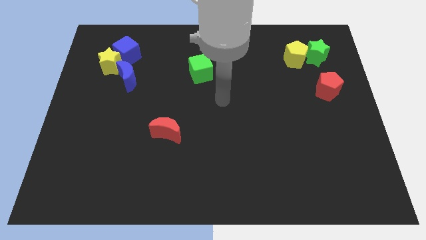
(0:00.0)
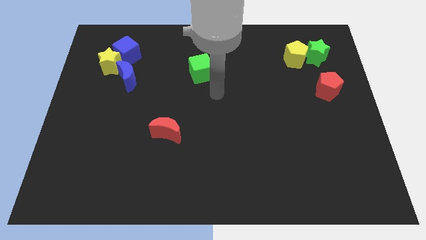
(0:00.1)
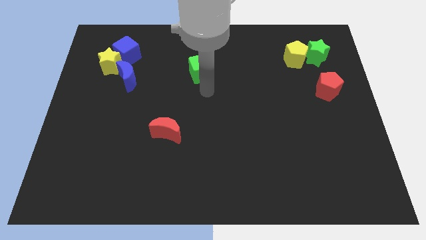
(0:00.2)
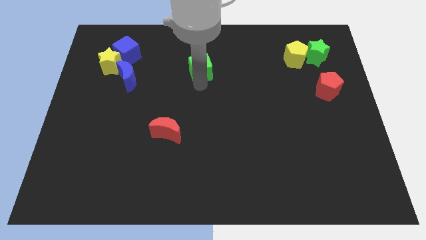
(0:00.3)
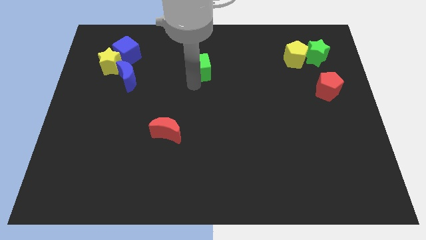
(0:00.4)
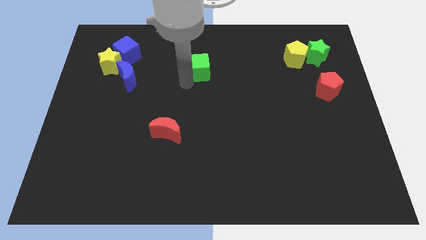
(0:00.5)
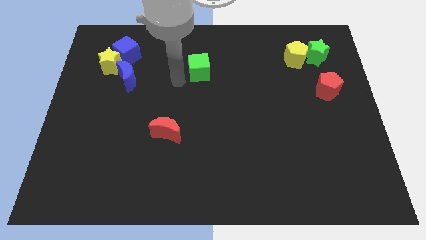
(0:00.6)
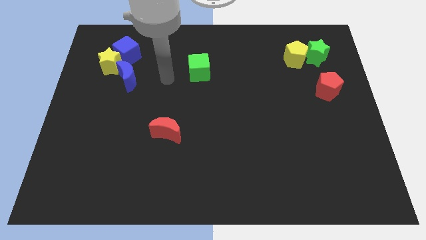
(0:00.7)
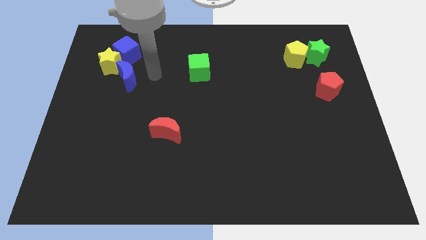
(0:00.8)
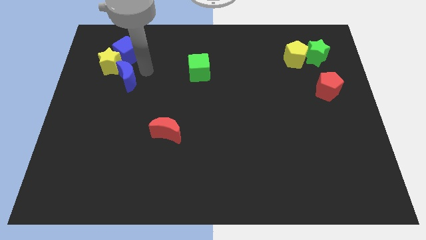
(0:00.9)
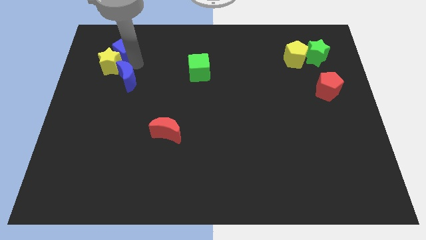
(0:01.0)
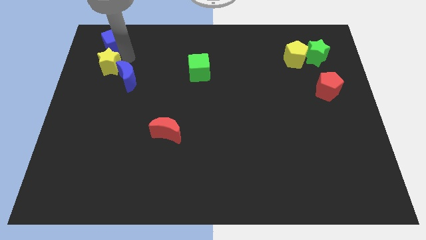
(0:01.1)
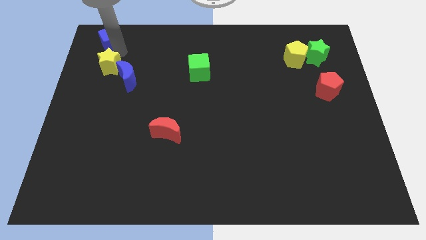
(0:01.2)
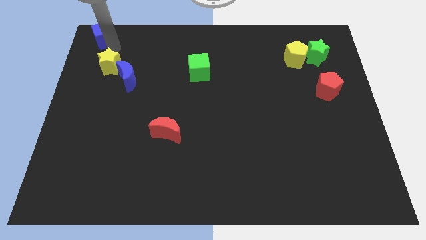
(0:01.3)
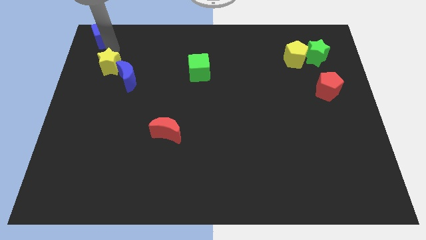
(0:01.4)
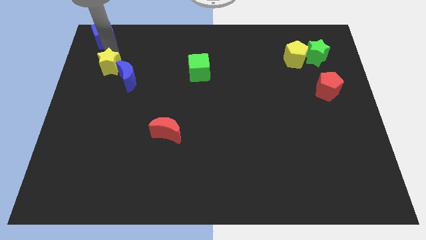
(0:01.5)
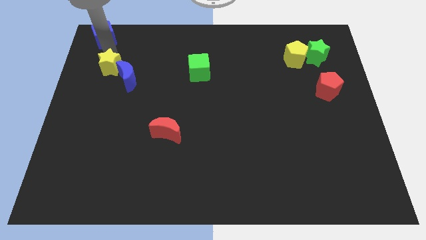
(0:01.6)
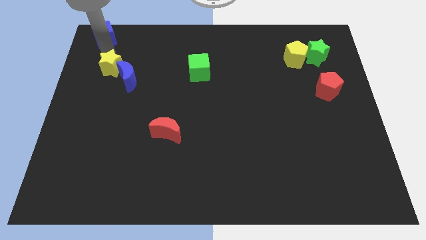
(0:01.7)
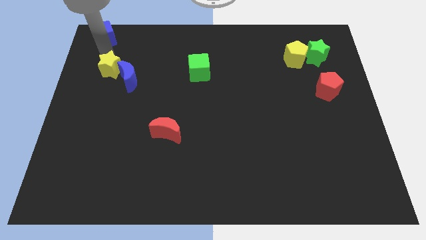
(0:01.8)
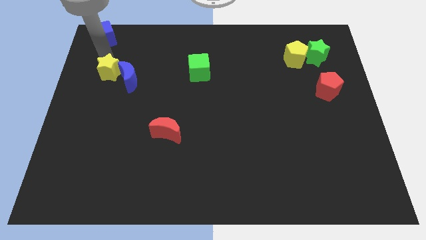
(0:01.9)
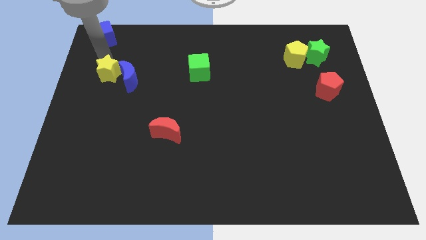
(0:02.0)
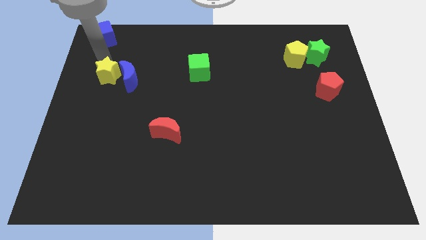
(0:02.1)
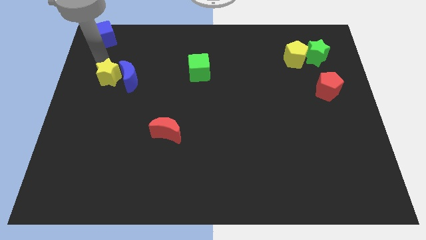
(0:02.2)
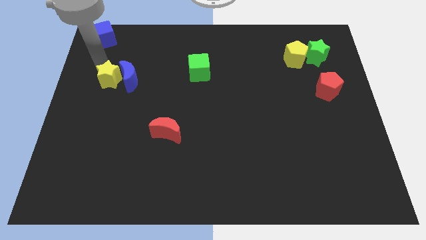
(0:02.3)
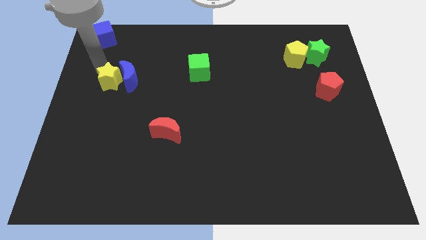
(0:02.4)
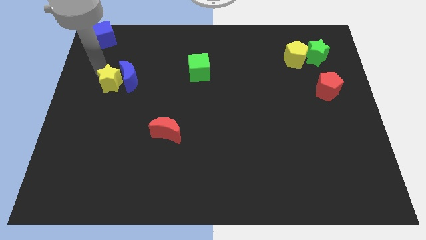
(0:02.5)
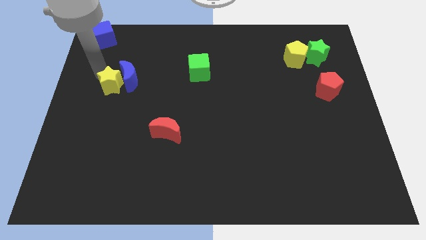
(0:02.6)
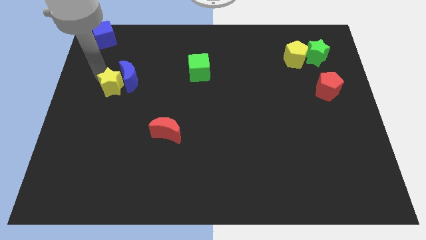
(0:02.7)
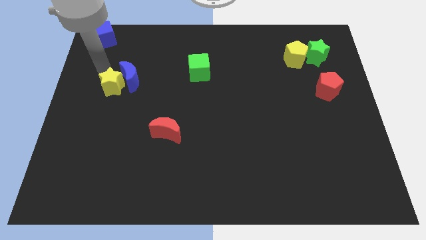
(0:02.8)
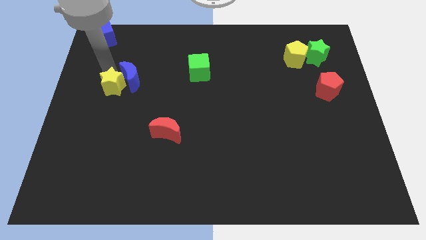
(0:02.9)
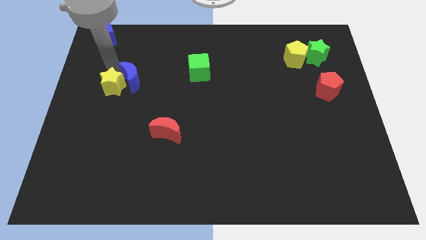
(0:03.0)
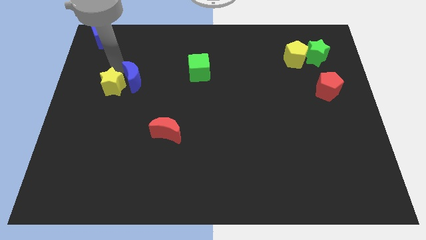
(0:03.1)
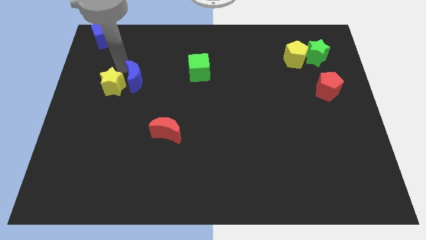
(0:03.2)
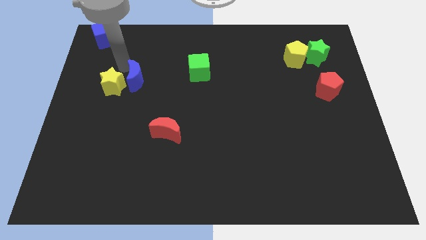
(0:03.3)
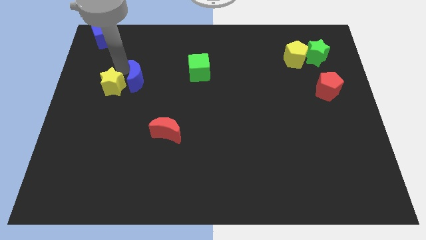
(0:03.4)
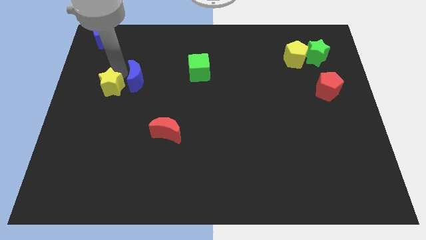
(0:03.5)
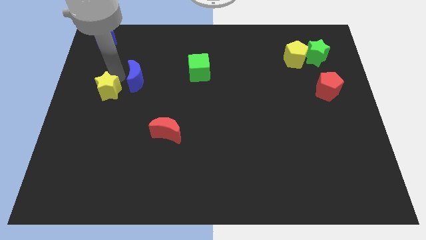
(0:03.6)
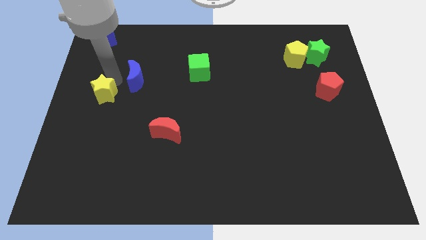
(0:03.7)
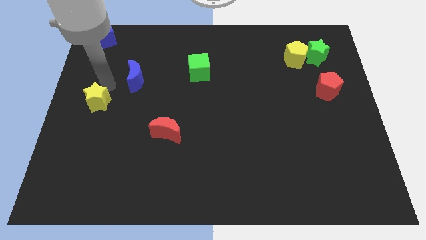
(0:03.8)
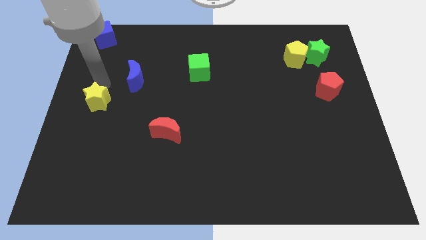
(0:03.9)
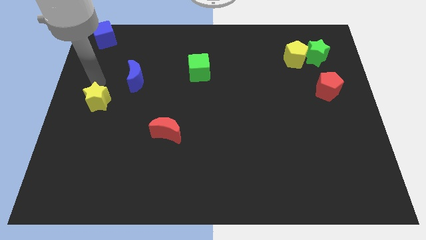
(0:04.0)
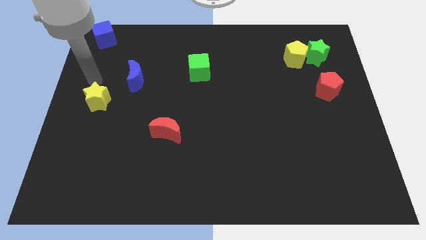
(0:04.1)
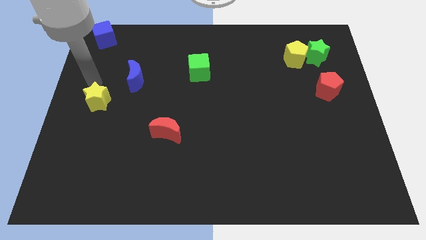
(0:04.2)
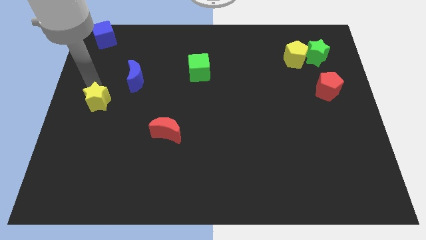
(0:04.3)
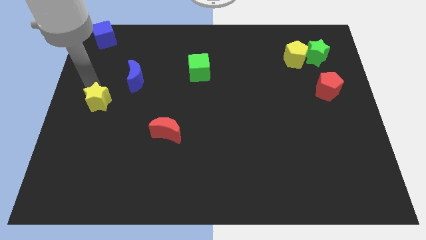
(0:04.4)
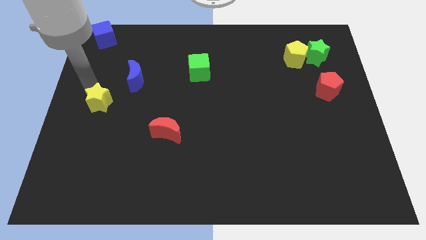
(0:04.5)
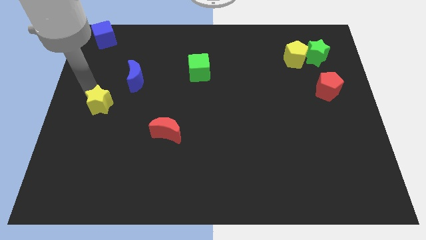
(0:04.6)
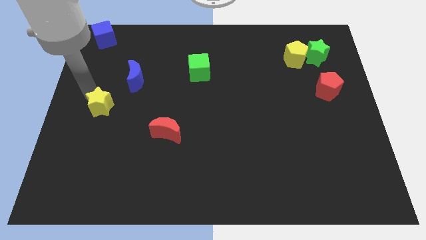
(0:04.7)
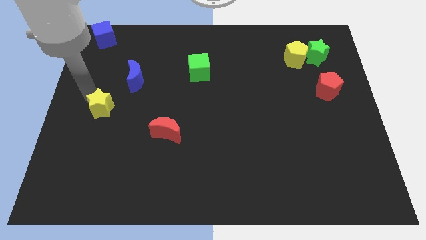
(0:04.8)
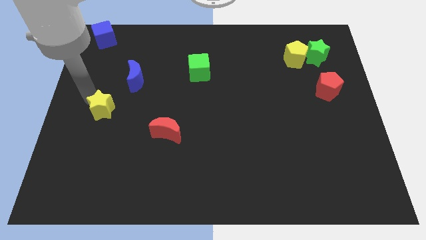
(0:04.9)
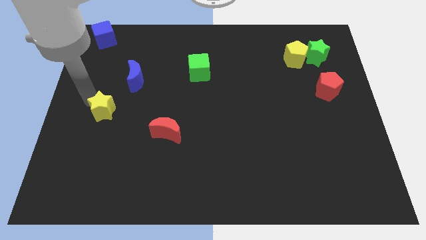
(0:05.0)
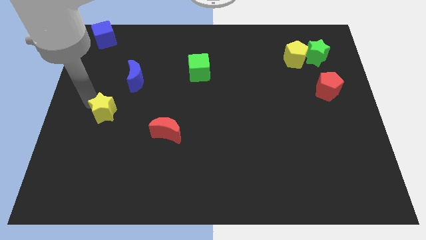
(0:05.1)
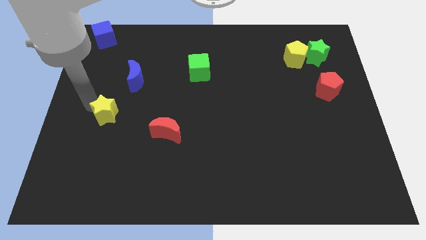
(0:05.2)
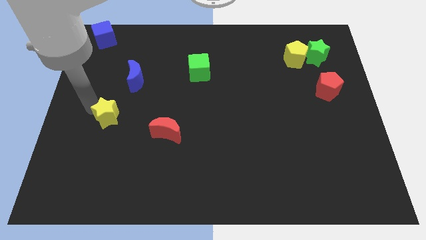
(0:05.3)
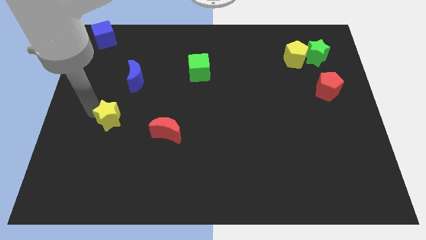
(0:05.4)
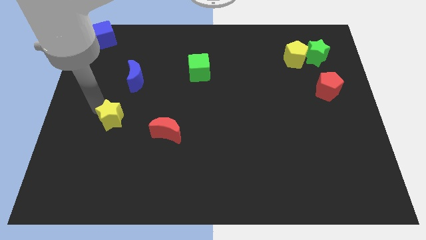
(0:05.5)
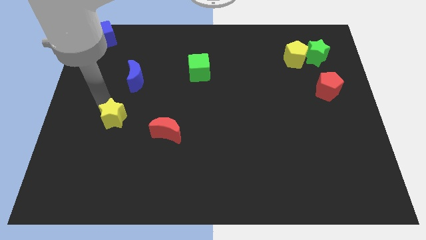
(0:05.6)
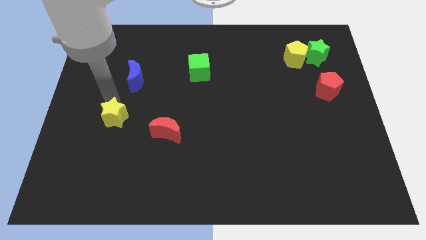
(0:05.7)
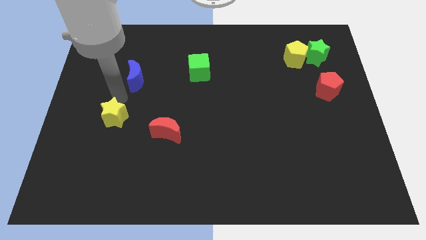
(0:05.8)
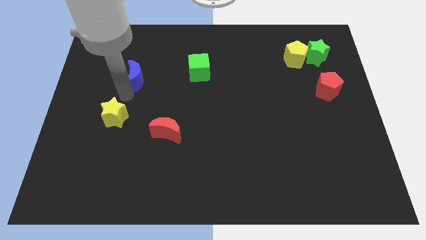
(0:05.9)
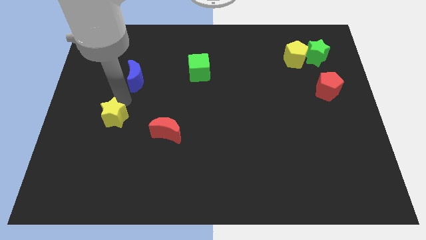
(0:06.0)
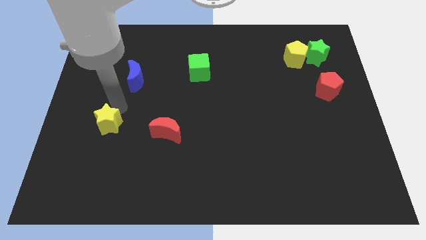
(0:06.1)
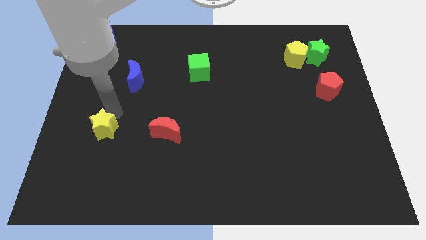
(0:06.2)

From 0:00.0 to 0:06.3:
move the yellow star downwards

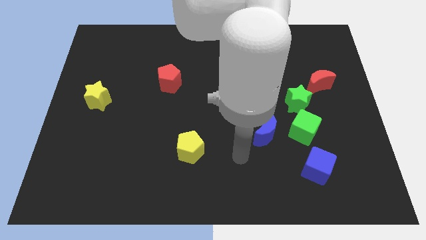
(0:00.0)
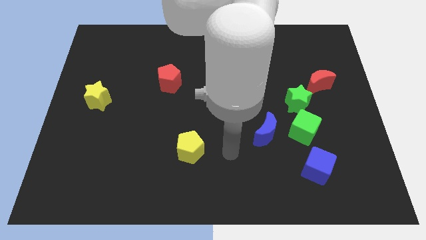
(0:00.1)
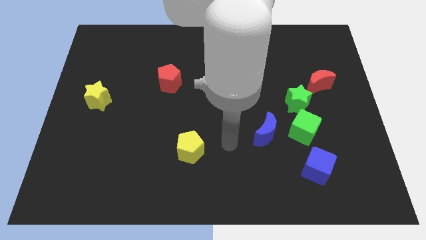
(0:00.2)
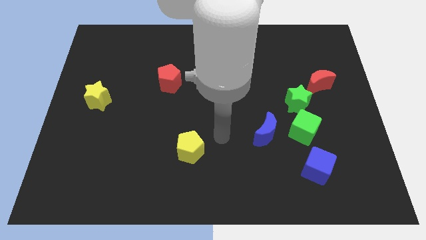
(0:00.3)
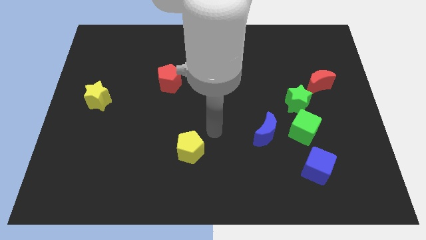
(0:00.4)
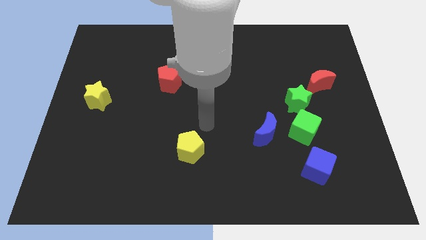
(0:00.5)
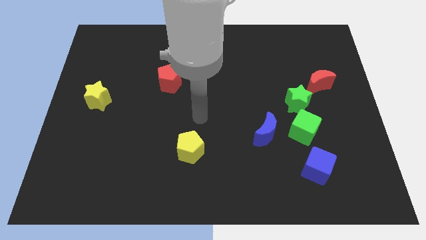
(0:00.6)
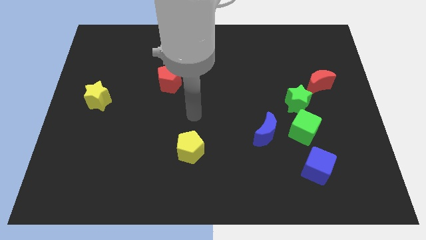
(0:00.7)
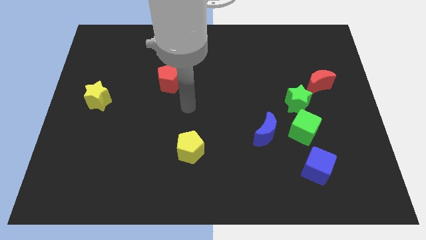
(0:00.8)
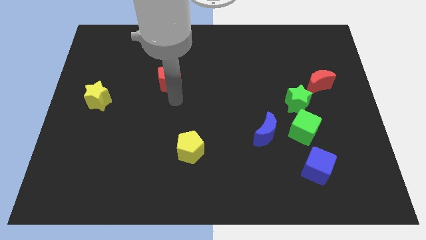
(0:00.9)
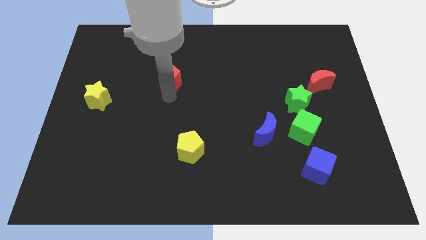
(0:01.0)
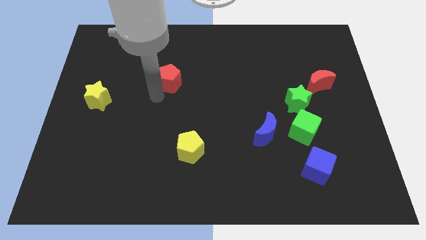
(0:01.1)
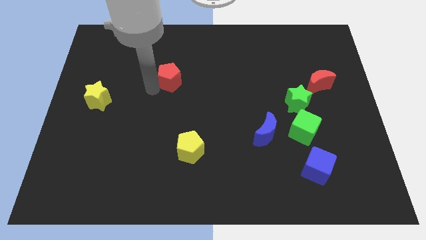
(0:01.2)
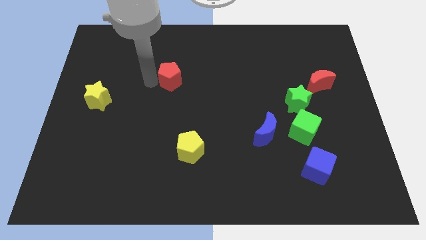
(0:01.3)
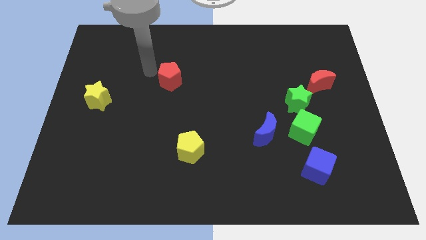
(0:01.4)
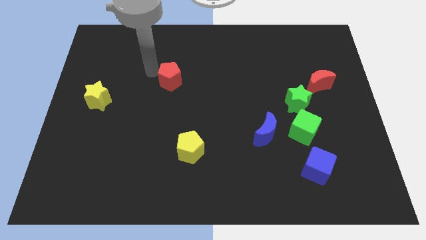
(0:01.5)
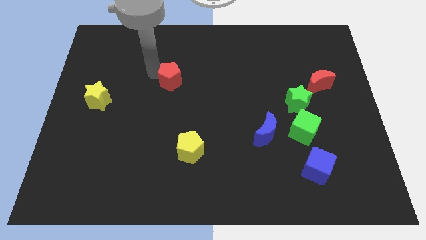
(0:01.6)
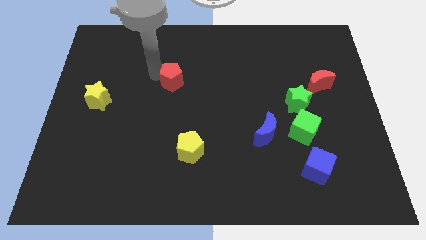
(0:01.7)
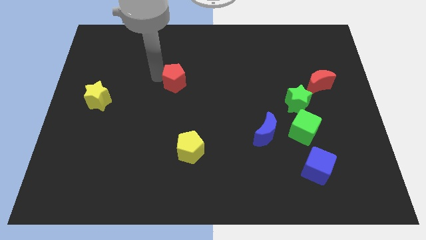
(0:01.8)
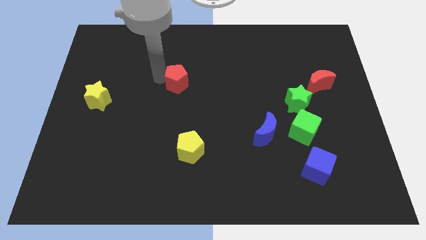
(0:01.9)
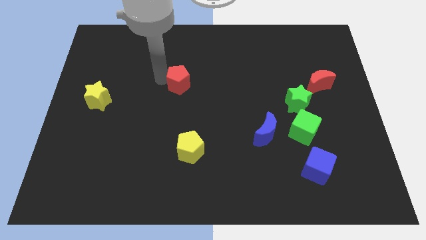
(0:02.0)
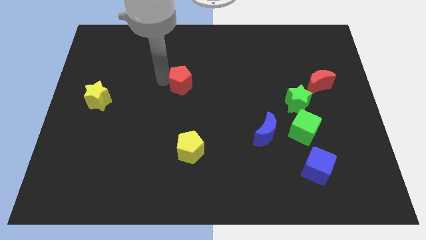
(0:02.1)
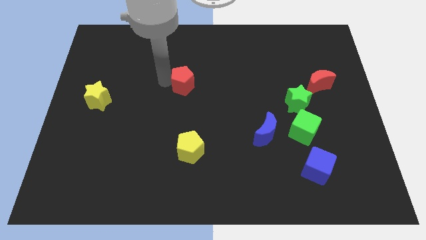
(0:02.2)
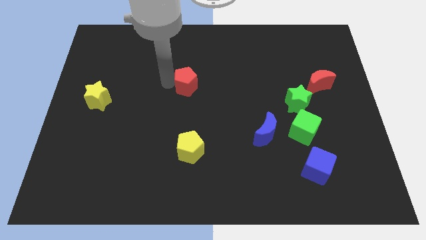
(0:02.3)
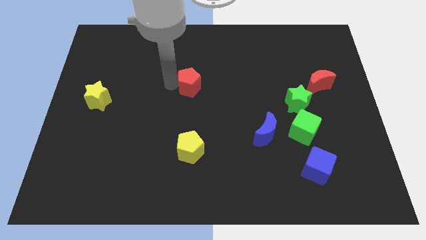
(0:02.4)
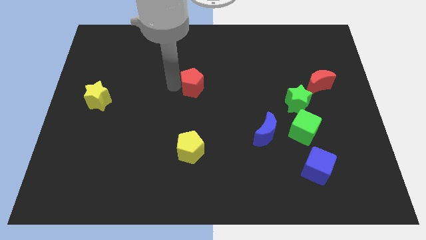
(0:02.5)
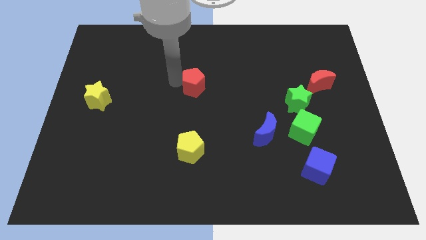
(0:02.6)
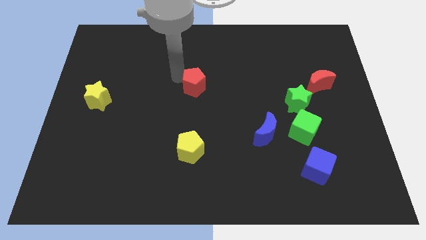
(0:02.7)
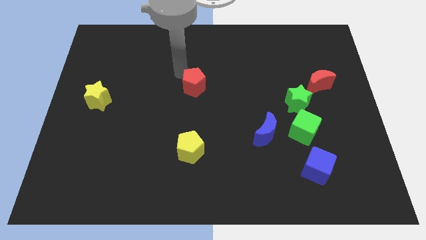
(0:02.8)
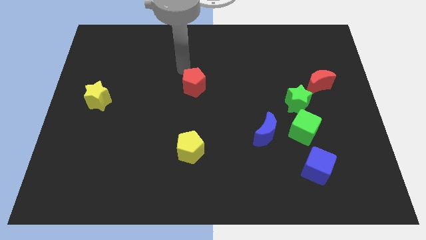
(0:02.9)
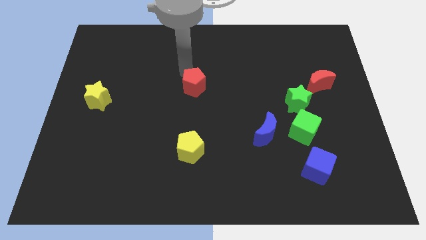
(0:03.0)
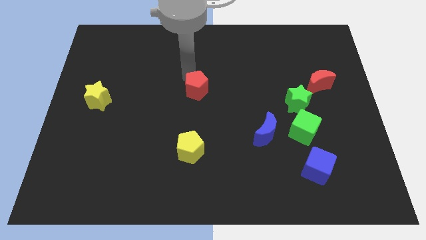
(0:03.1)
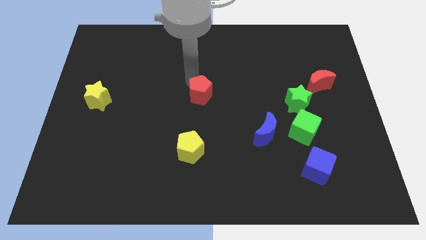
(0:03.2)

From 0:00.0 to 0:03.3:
move the red pentagon slightly down and then to the right
